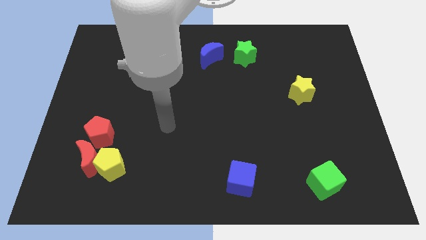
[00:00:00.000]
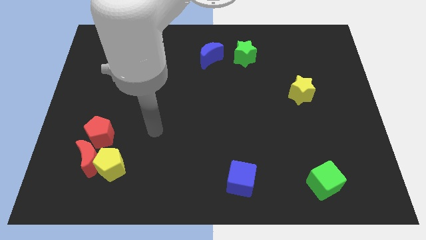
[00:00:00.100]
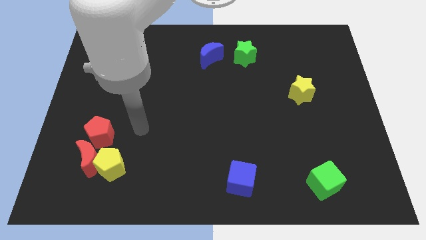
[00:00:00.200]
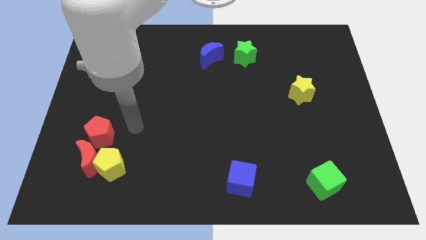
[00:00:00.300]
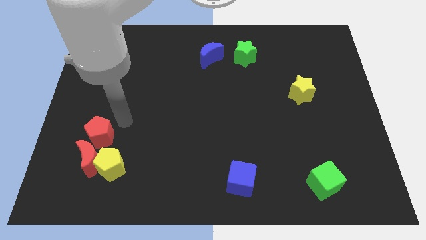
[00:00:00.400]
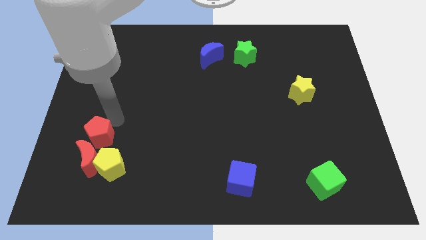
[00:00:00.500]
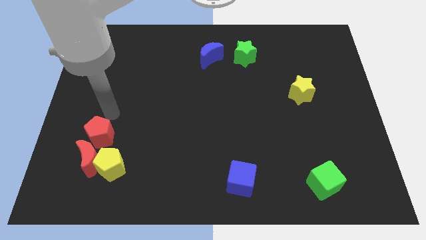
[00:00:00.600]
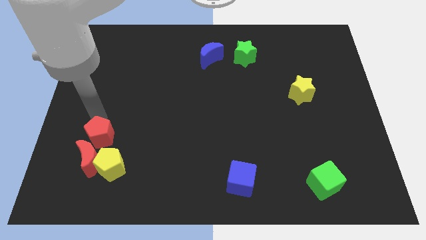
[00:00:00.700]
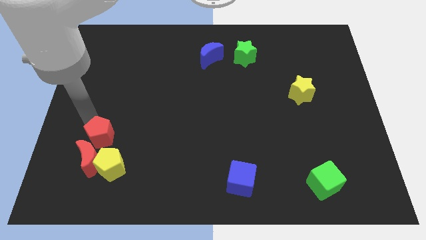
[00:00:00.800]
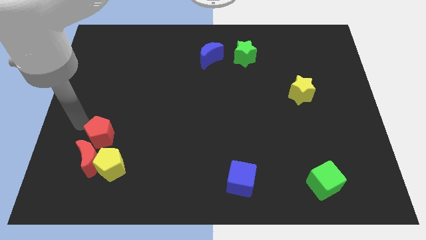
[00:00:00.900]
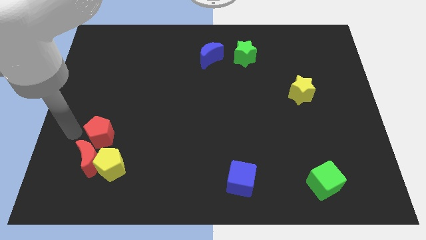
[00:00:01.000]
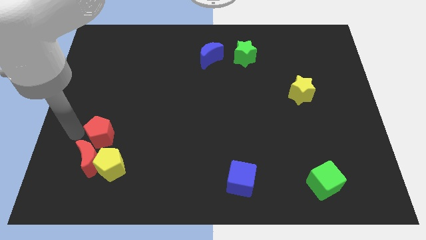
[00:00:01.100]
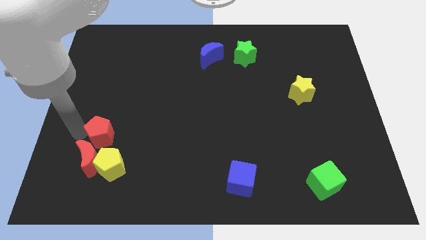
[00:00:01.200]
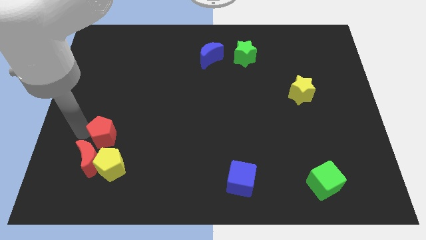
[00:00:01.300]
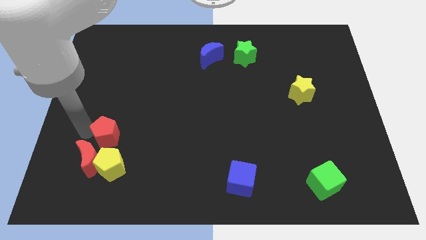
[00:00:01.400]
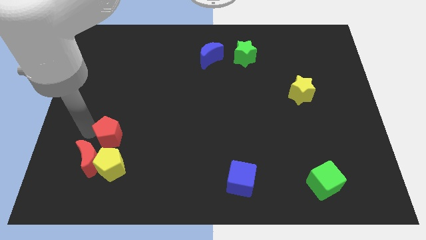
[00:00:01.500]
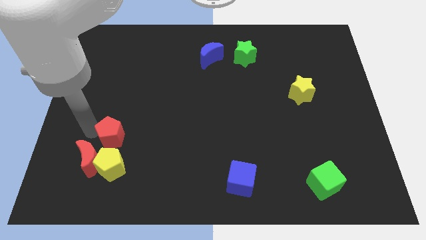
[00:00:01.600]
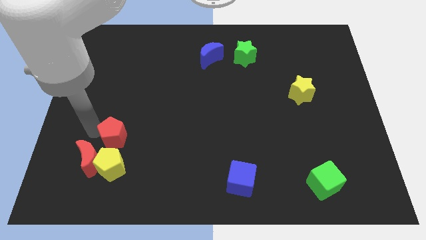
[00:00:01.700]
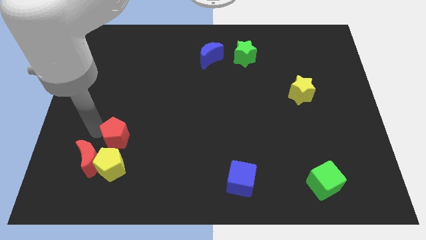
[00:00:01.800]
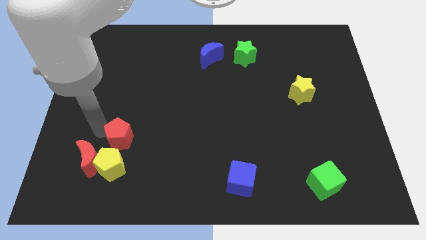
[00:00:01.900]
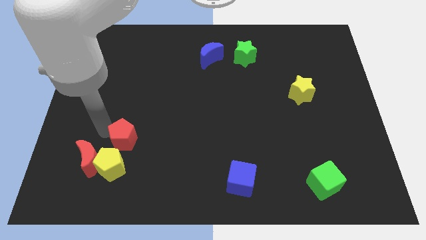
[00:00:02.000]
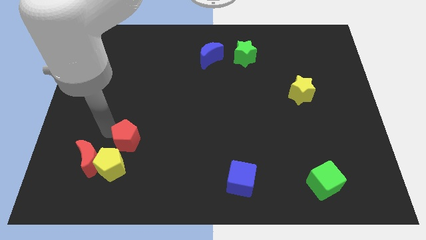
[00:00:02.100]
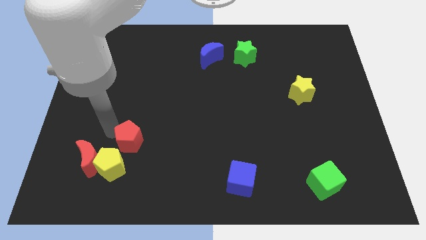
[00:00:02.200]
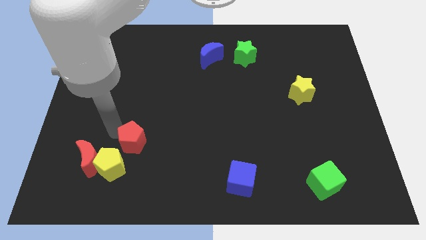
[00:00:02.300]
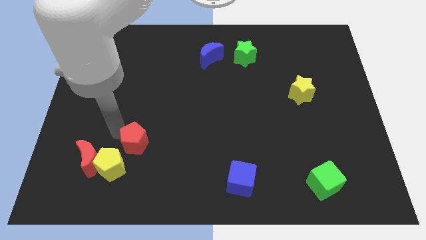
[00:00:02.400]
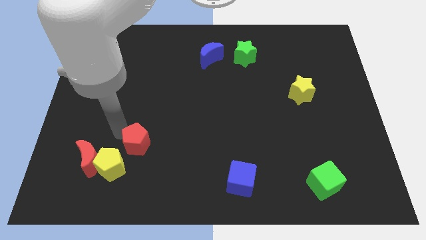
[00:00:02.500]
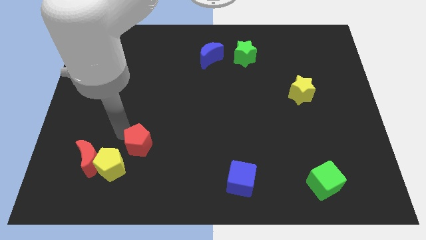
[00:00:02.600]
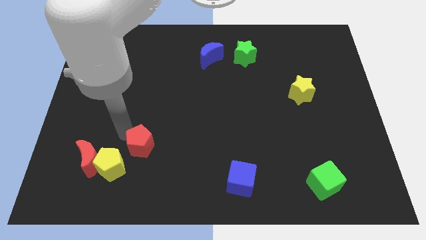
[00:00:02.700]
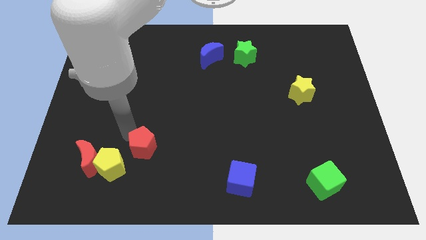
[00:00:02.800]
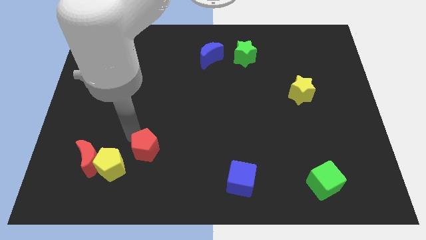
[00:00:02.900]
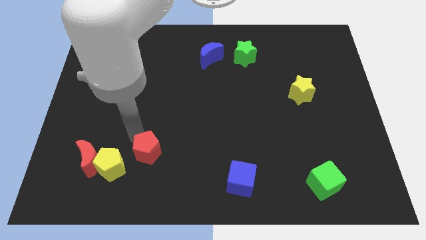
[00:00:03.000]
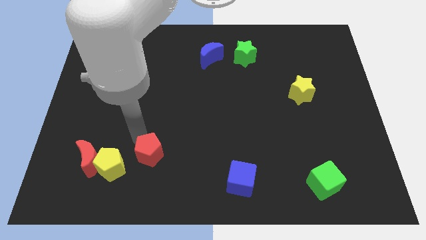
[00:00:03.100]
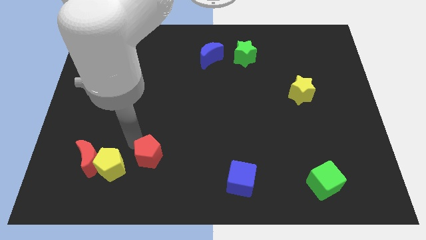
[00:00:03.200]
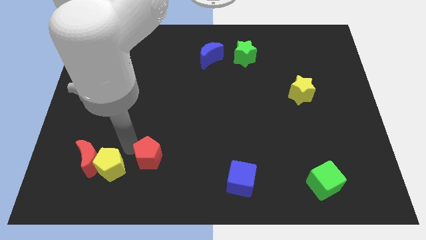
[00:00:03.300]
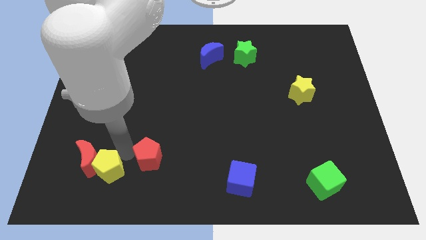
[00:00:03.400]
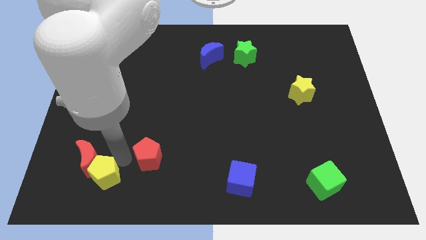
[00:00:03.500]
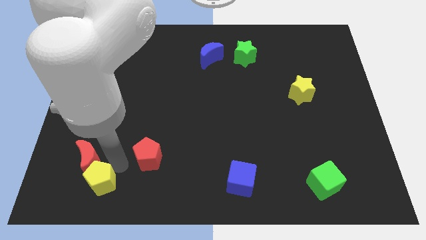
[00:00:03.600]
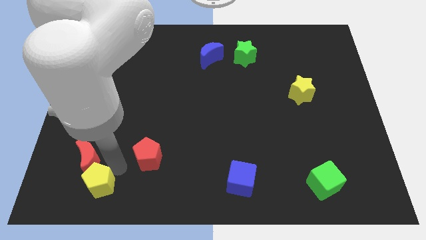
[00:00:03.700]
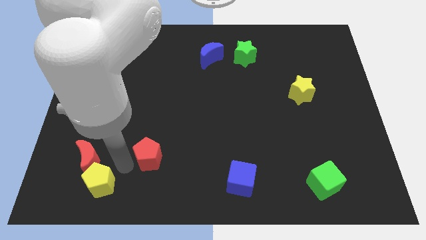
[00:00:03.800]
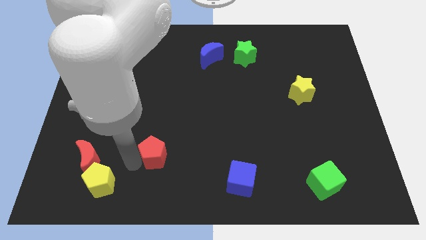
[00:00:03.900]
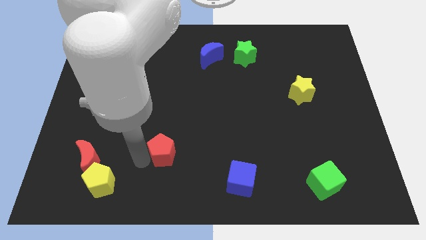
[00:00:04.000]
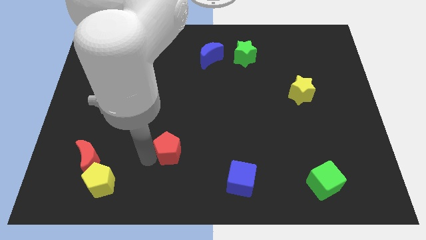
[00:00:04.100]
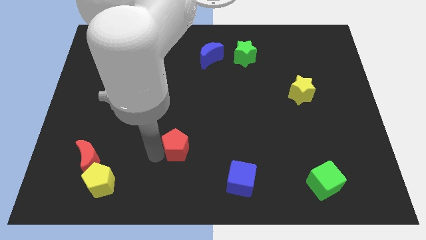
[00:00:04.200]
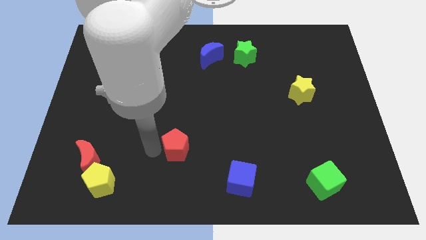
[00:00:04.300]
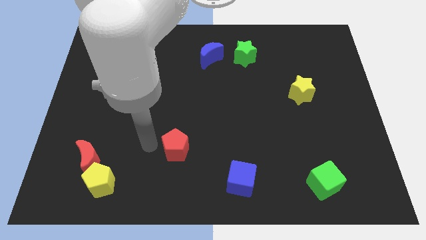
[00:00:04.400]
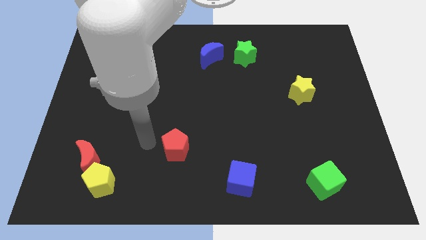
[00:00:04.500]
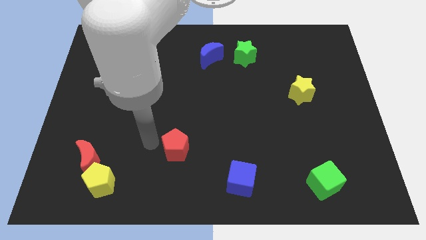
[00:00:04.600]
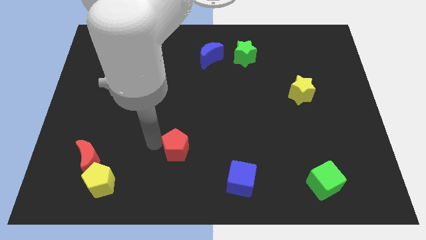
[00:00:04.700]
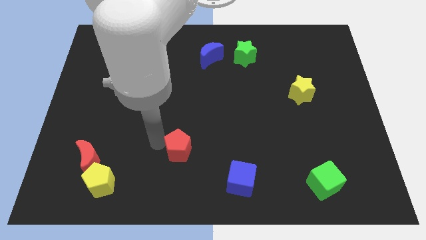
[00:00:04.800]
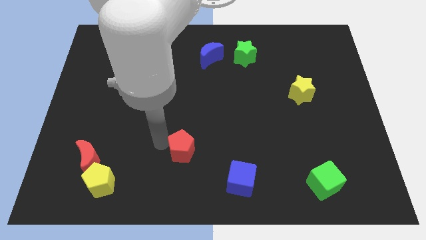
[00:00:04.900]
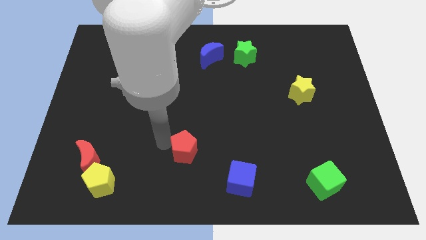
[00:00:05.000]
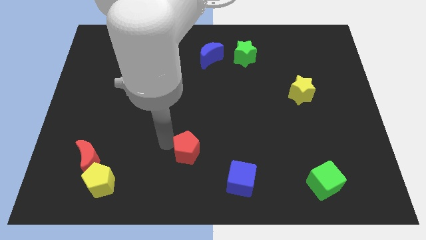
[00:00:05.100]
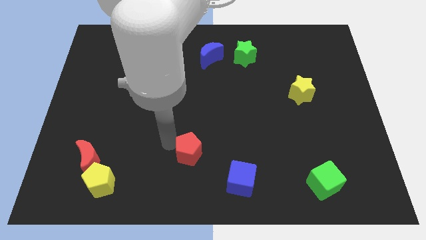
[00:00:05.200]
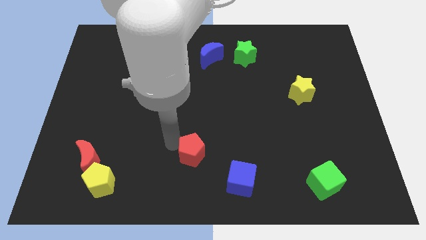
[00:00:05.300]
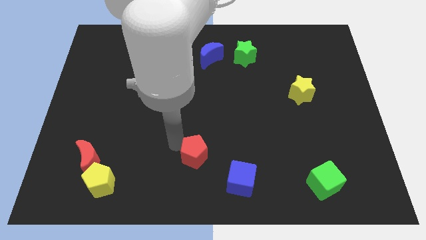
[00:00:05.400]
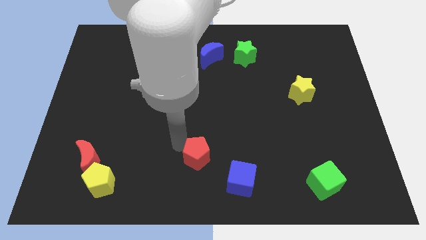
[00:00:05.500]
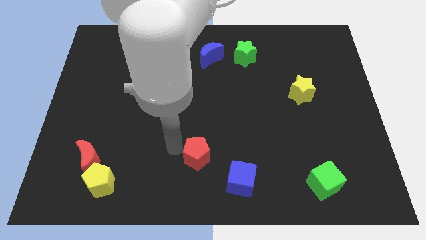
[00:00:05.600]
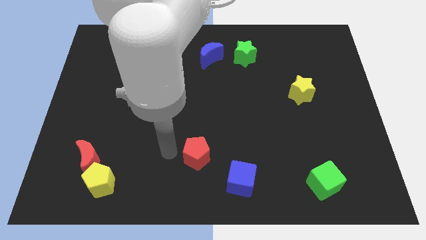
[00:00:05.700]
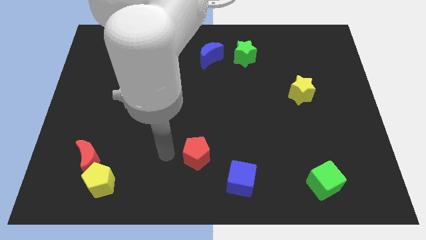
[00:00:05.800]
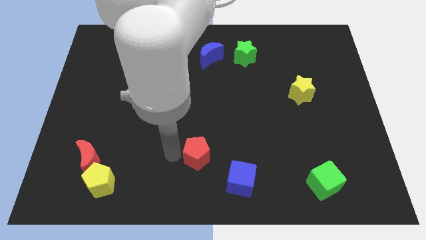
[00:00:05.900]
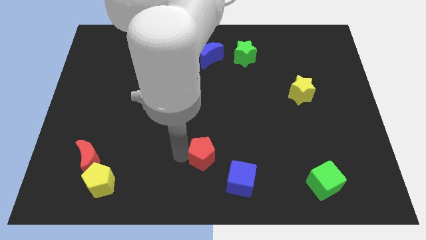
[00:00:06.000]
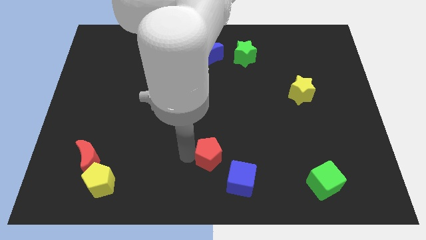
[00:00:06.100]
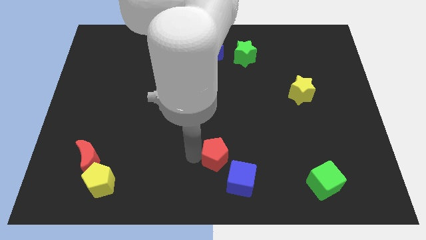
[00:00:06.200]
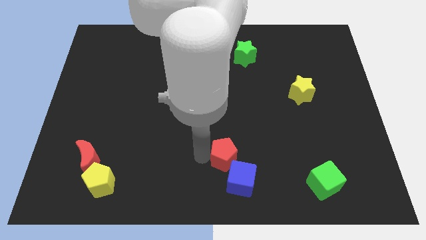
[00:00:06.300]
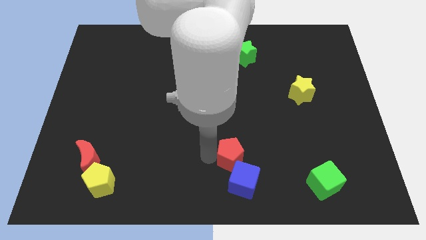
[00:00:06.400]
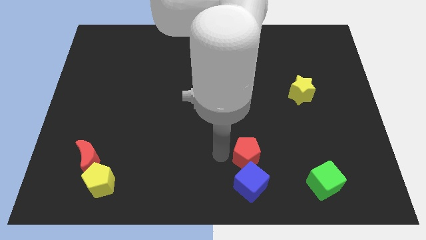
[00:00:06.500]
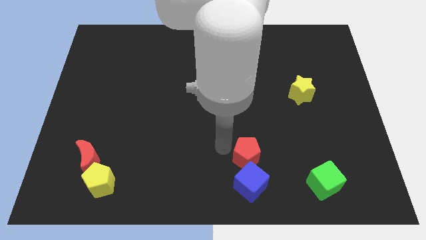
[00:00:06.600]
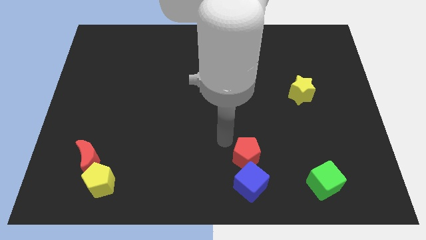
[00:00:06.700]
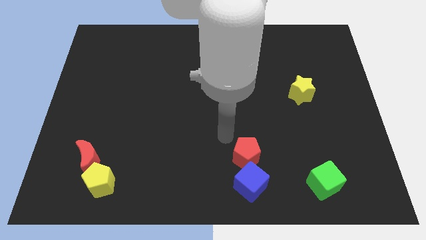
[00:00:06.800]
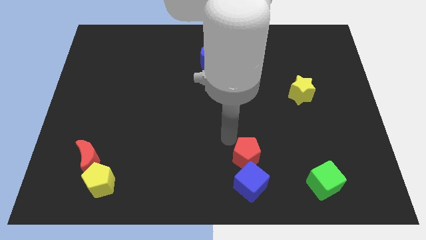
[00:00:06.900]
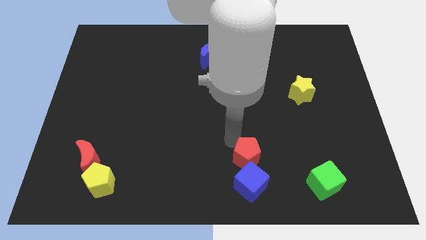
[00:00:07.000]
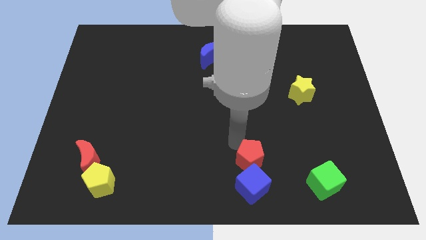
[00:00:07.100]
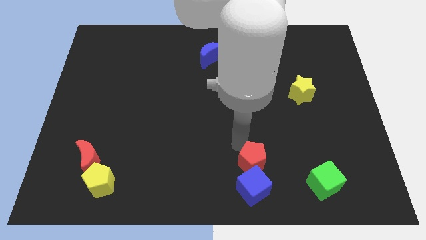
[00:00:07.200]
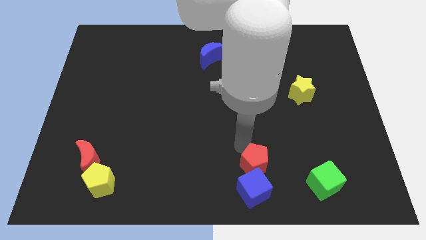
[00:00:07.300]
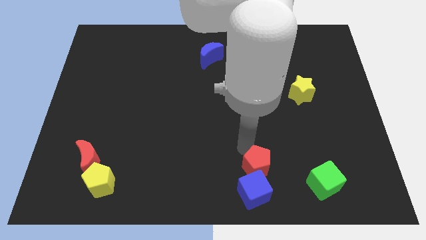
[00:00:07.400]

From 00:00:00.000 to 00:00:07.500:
slide the red pentagon to the left side of the green cube
